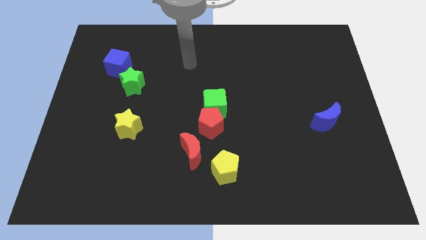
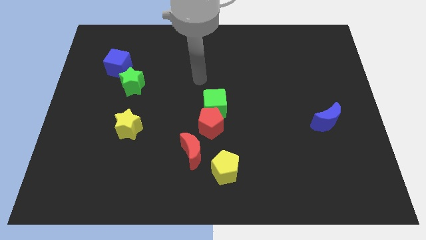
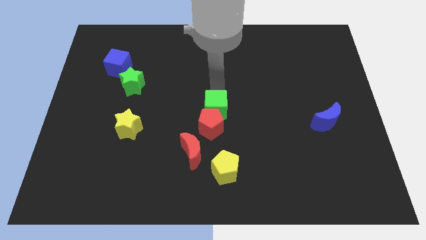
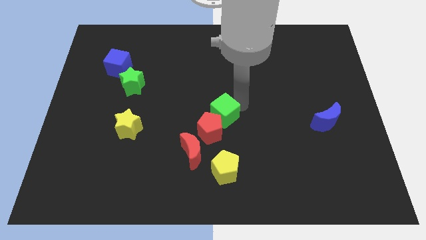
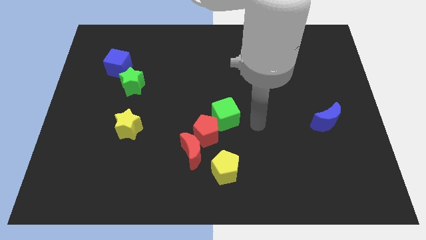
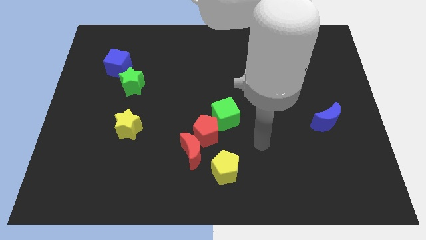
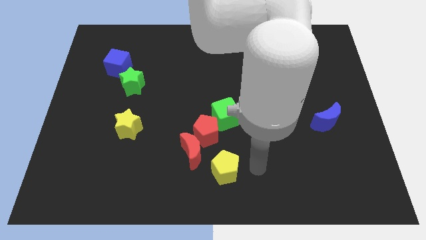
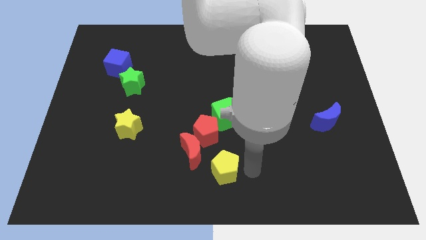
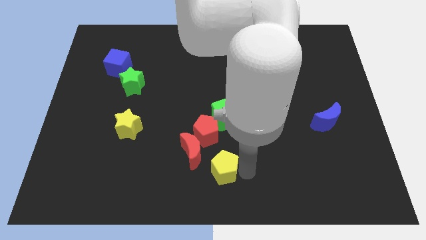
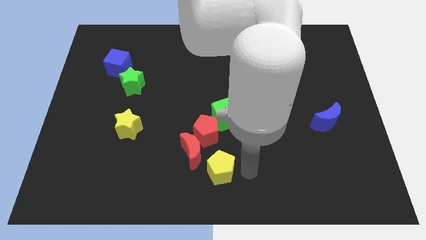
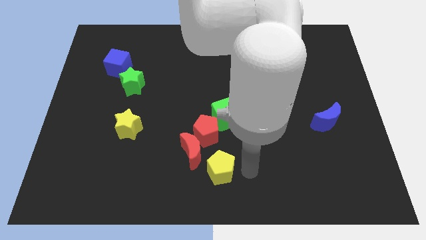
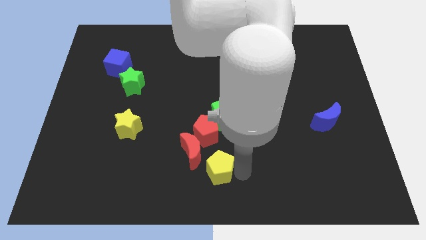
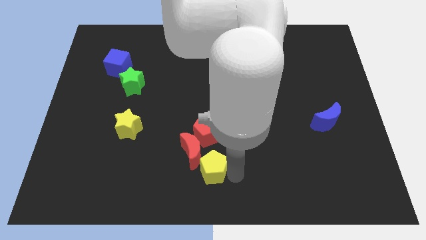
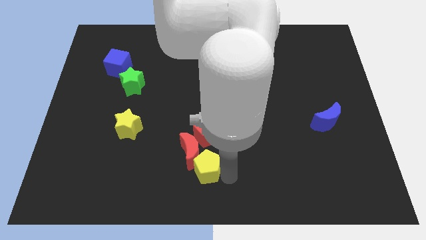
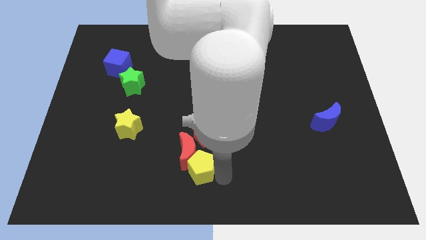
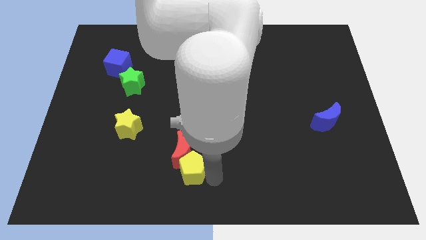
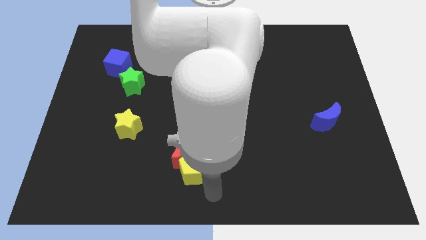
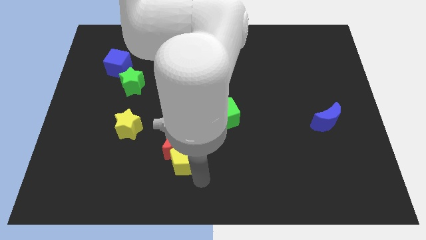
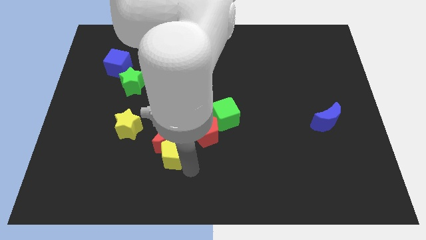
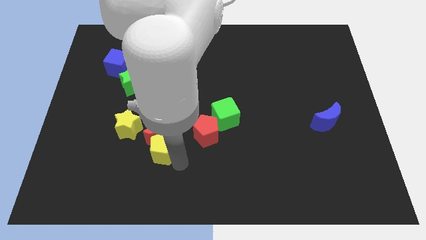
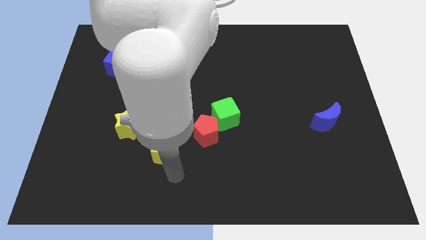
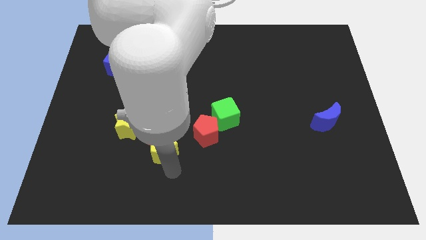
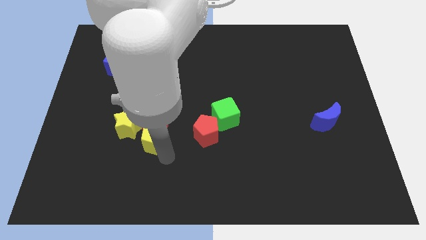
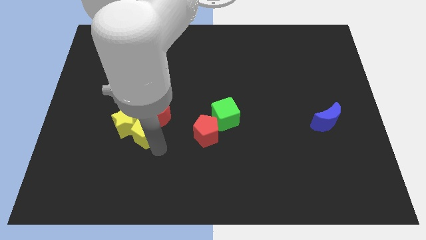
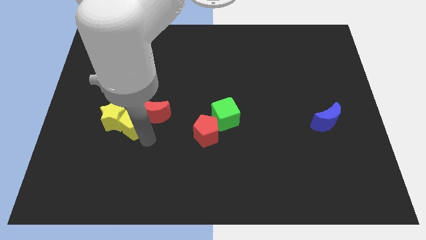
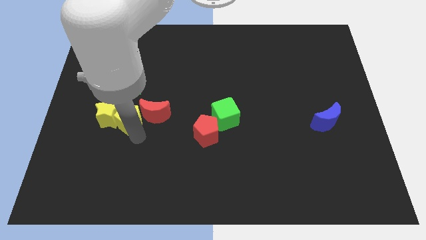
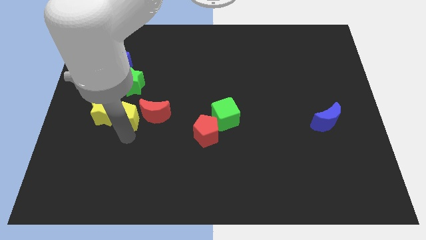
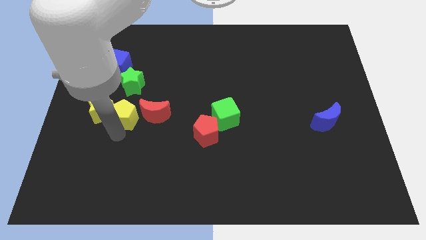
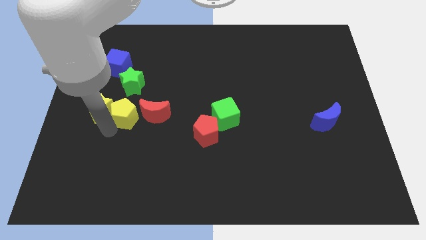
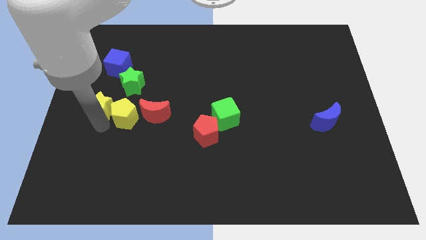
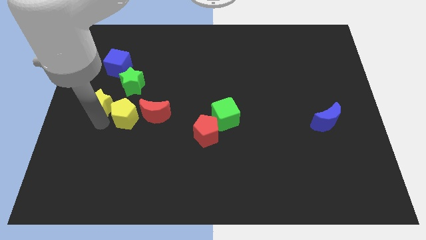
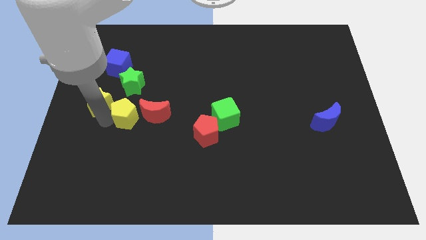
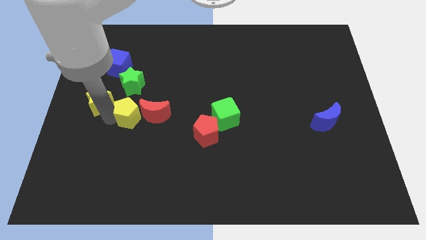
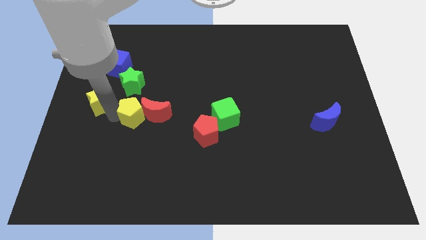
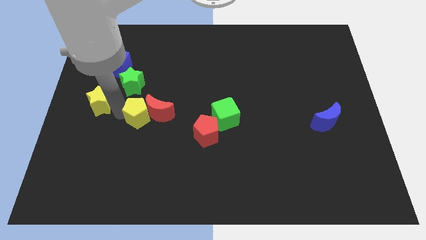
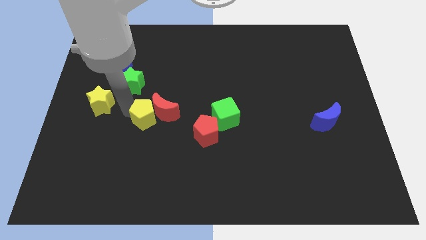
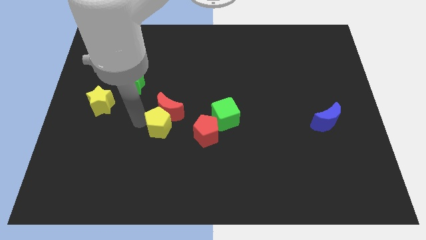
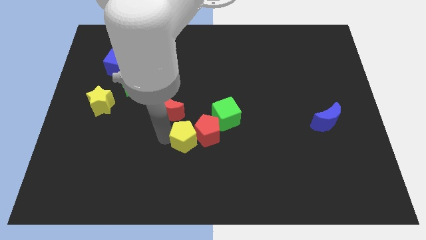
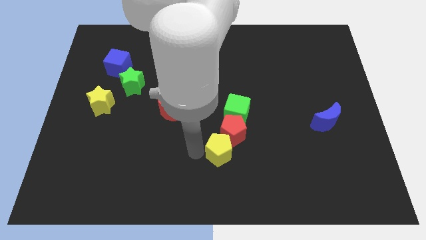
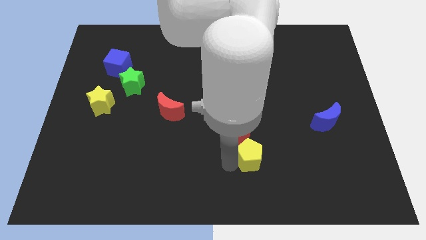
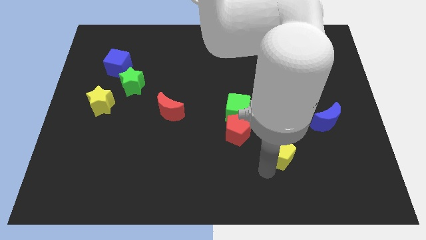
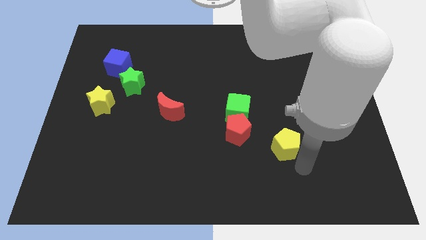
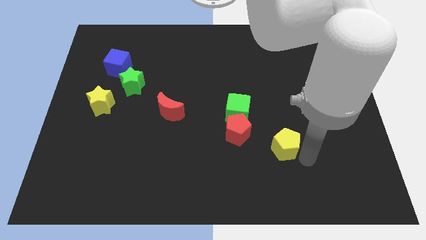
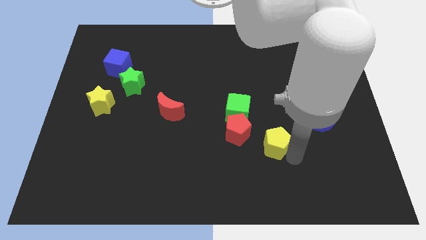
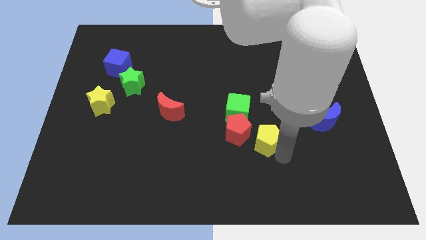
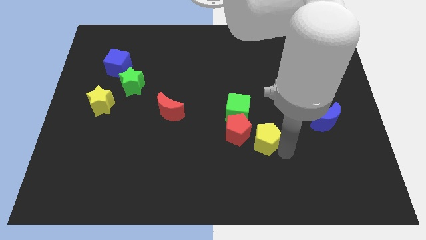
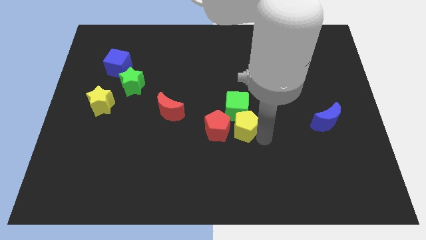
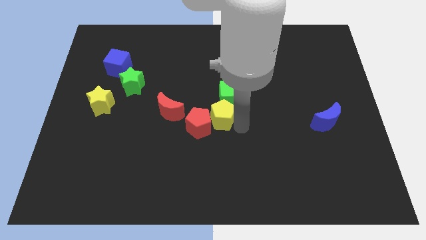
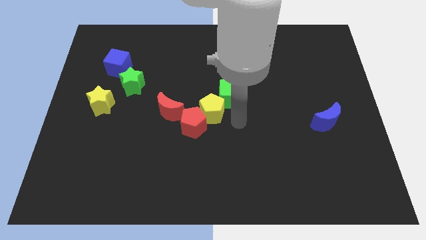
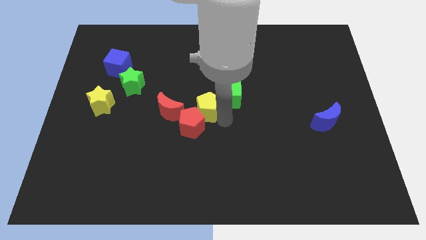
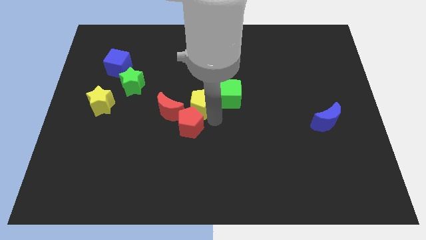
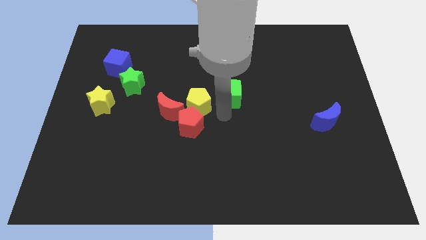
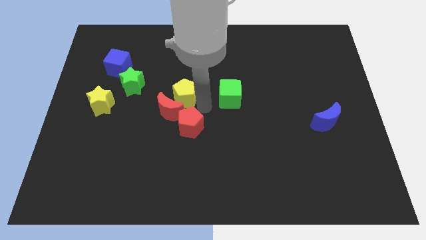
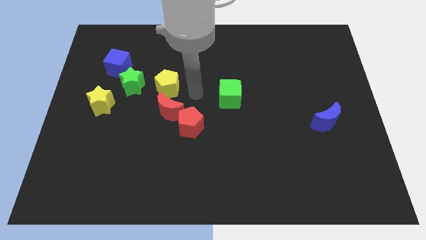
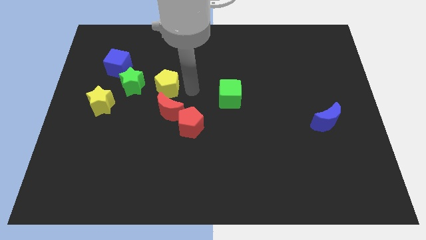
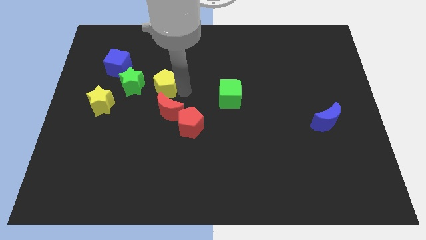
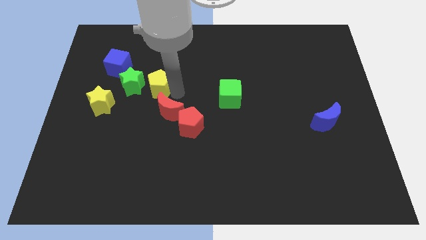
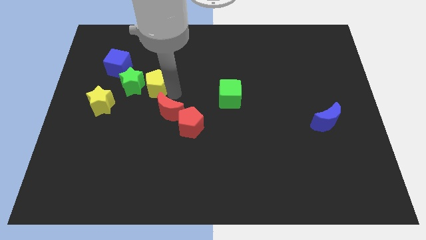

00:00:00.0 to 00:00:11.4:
slide the yellow pentagon close to the green star

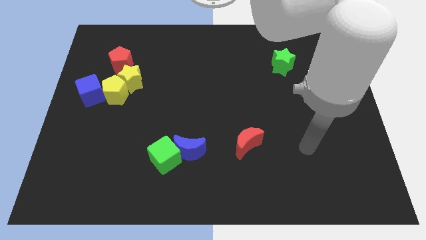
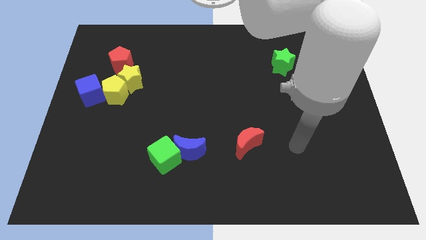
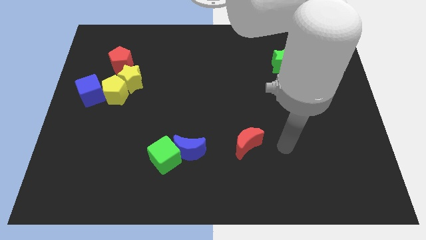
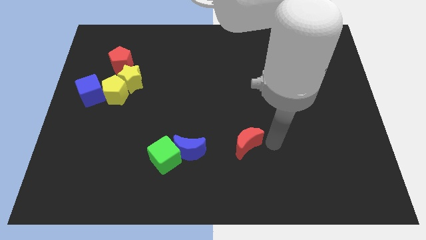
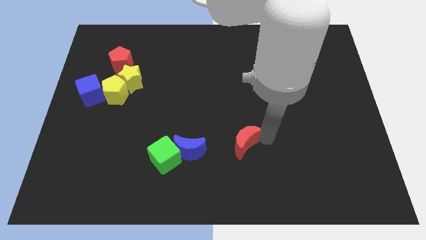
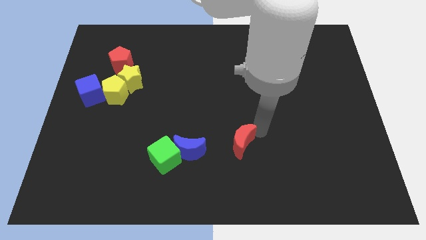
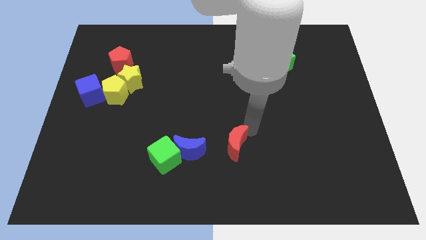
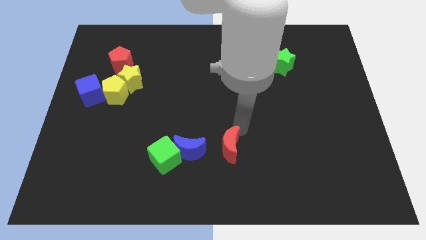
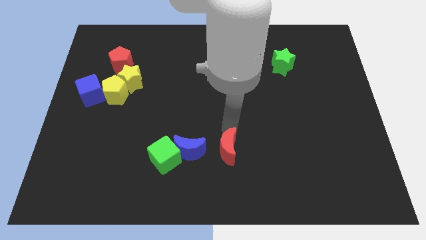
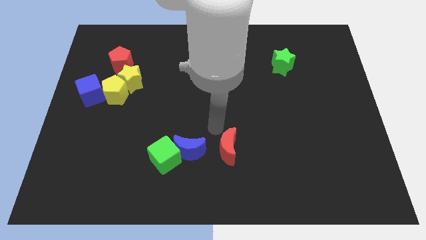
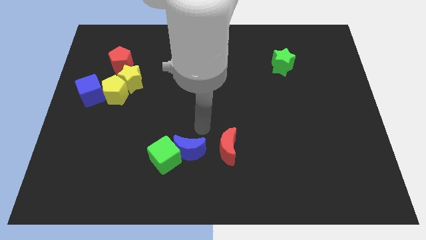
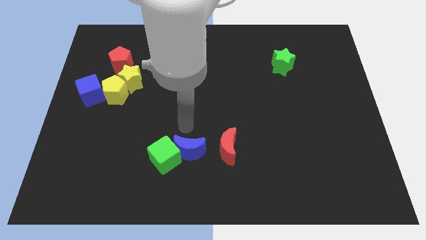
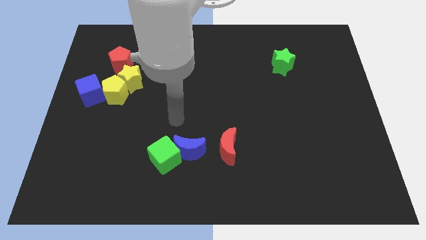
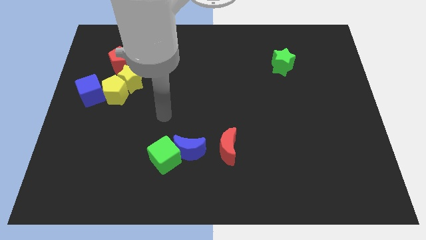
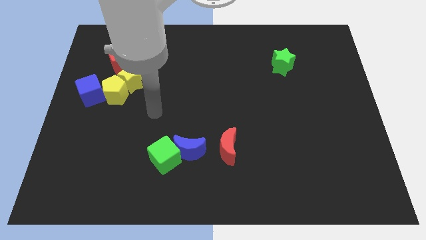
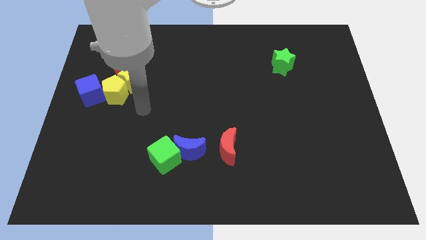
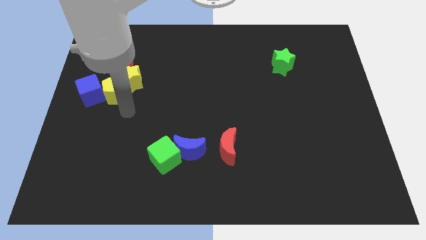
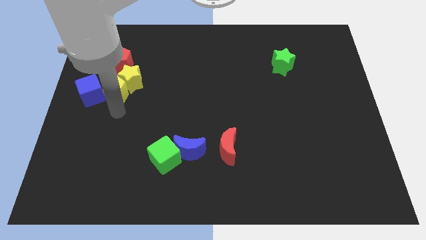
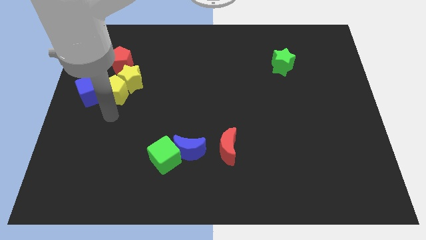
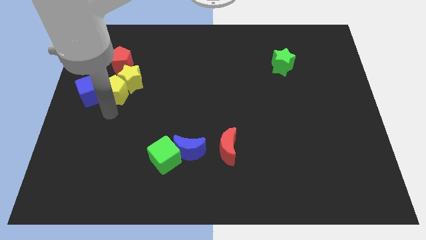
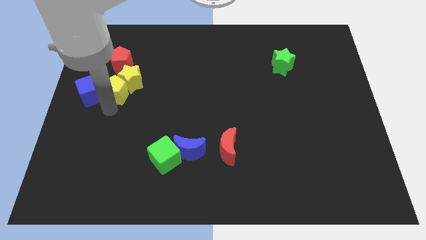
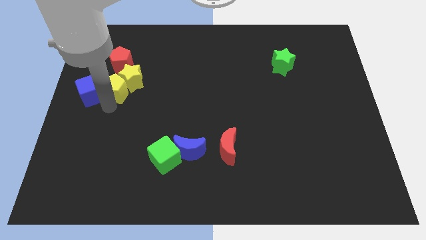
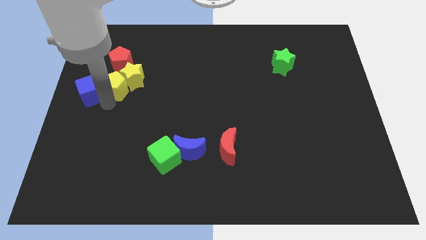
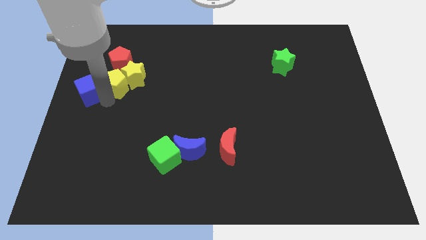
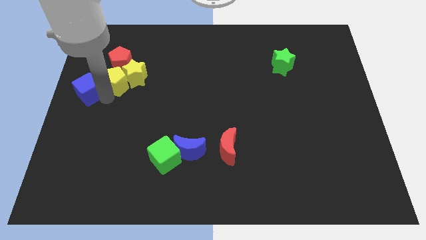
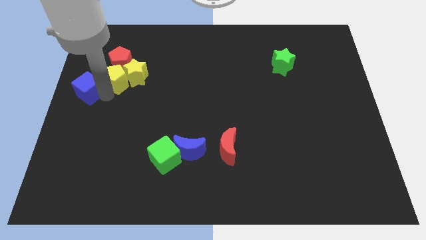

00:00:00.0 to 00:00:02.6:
put the yellow pentagon to the red pentagon
